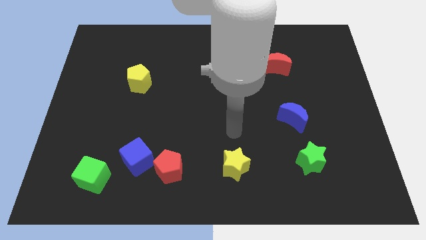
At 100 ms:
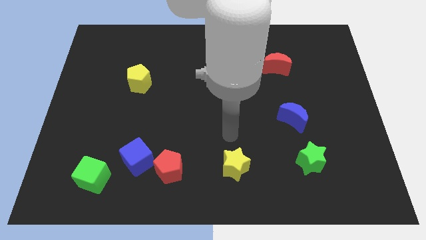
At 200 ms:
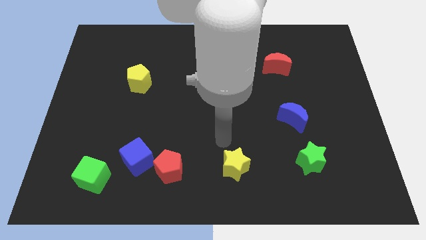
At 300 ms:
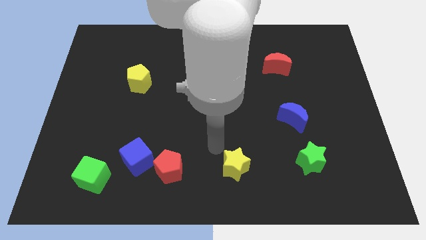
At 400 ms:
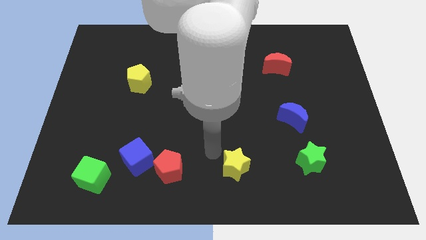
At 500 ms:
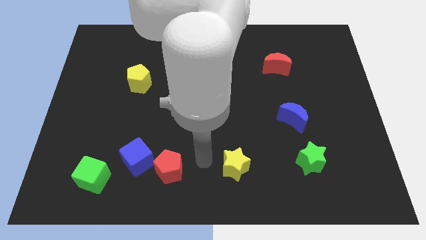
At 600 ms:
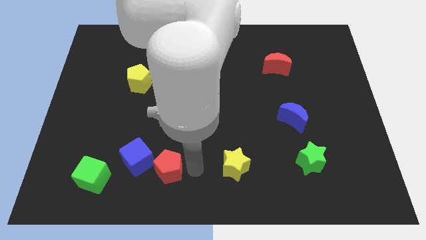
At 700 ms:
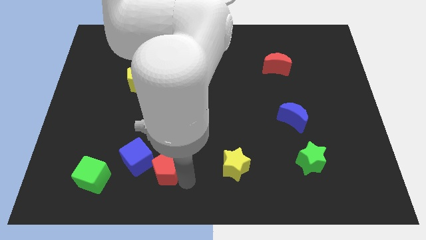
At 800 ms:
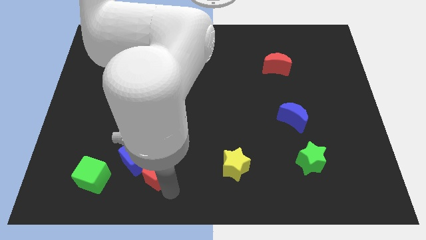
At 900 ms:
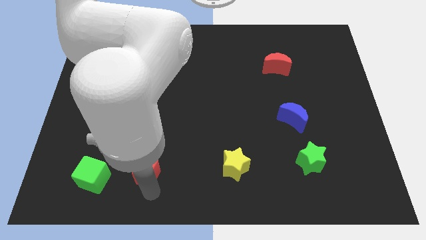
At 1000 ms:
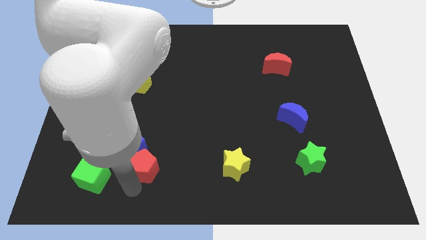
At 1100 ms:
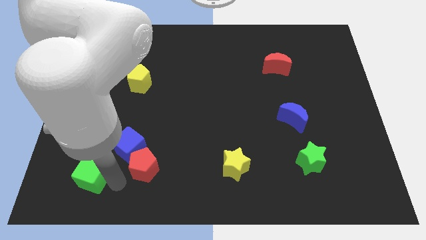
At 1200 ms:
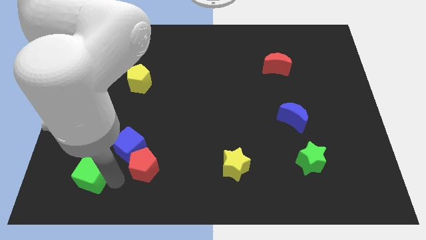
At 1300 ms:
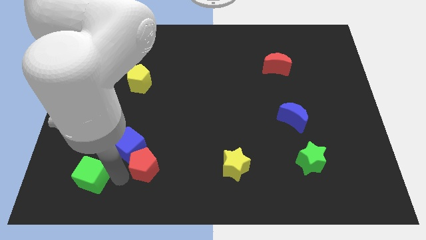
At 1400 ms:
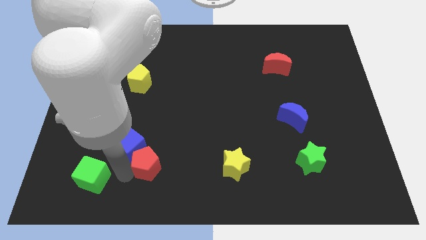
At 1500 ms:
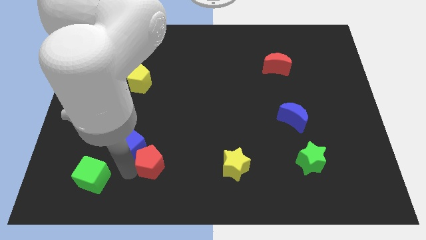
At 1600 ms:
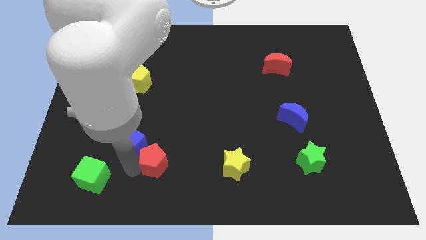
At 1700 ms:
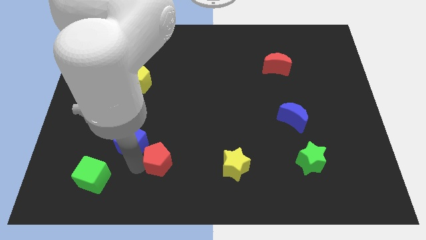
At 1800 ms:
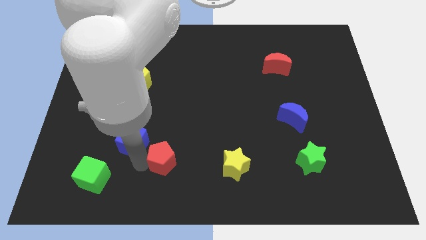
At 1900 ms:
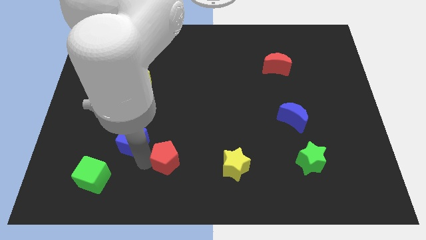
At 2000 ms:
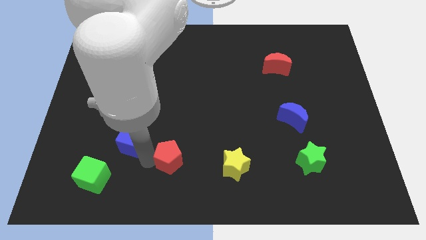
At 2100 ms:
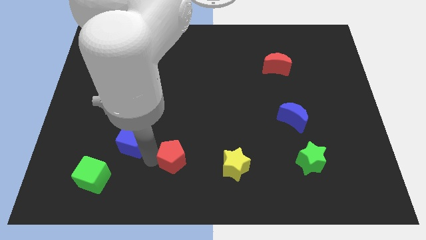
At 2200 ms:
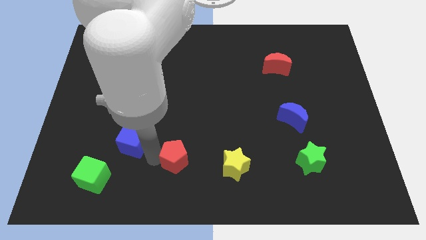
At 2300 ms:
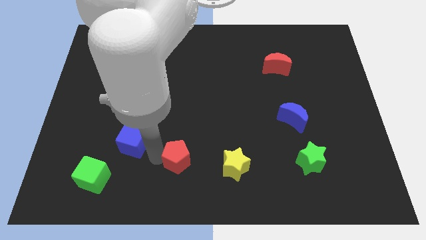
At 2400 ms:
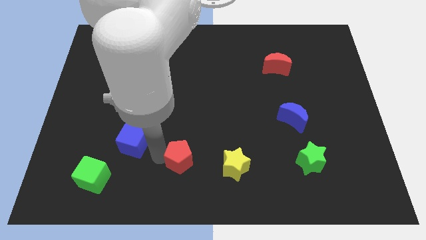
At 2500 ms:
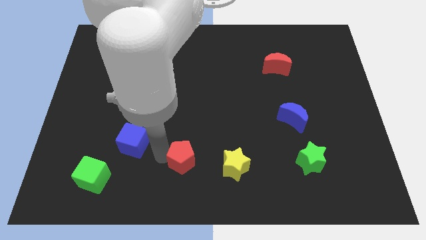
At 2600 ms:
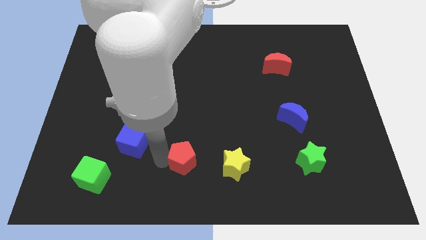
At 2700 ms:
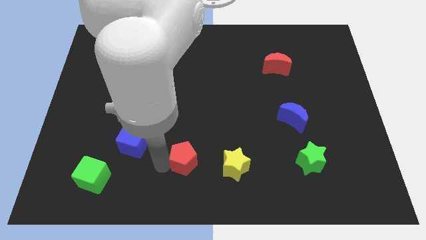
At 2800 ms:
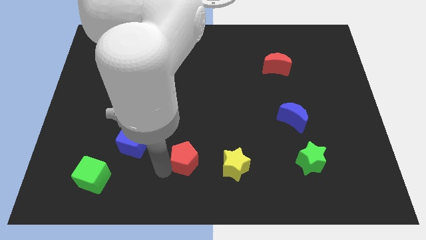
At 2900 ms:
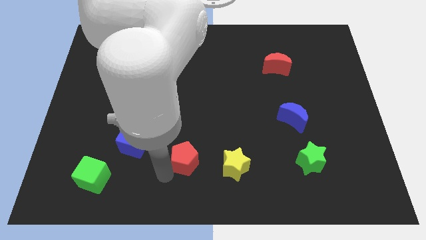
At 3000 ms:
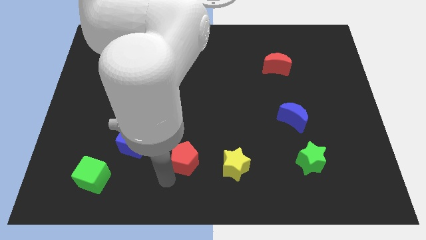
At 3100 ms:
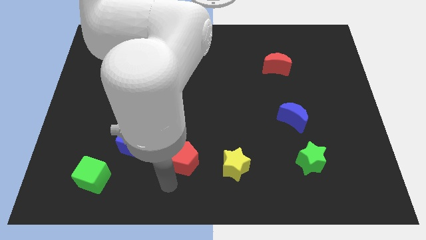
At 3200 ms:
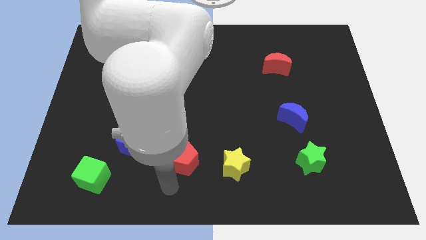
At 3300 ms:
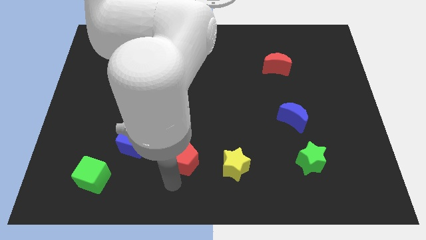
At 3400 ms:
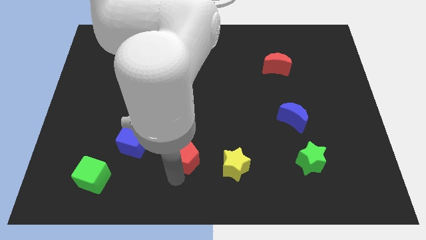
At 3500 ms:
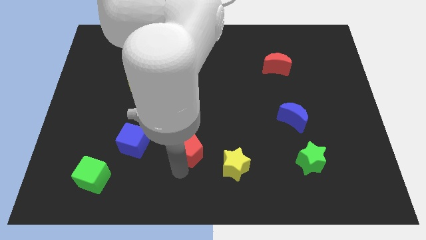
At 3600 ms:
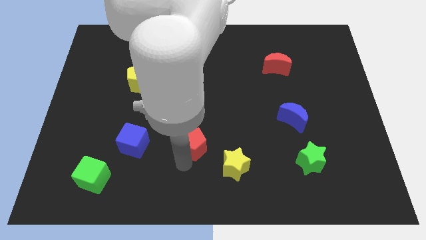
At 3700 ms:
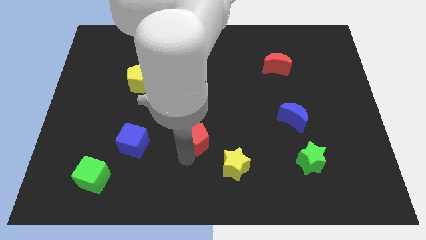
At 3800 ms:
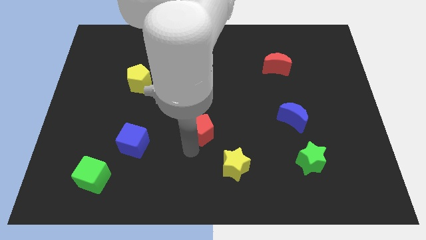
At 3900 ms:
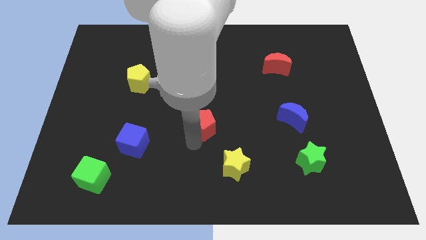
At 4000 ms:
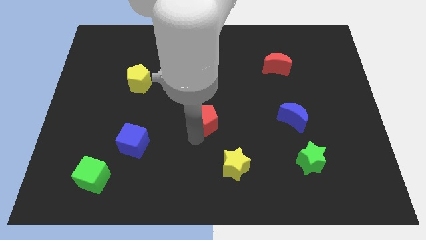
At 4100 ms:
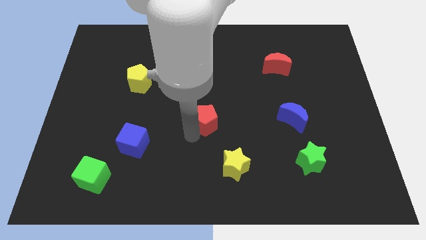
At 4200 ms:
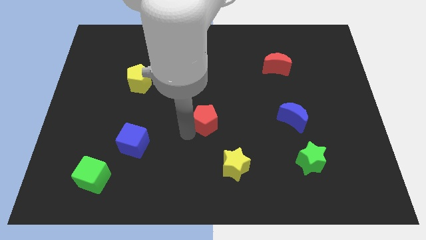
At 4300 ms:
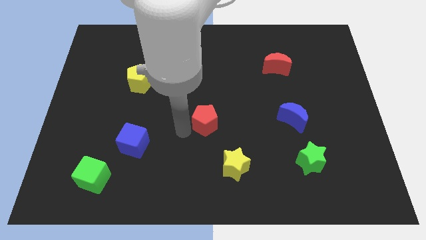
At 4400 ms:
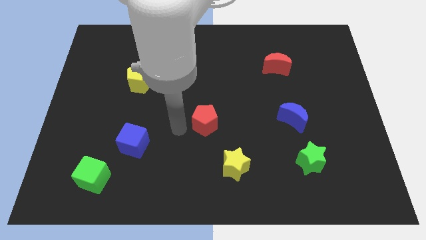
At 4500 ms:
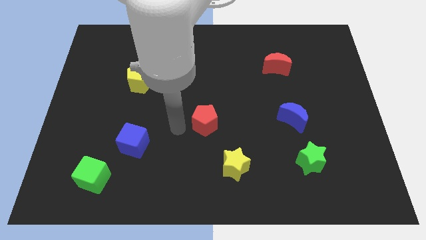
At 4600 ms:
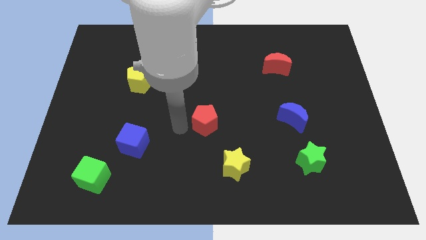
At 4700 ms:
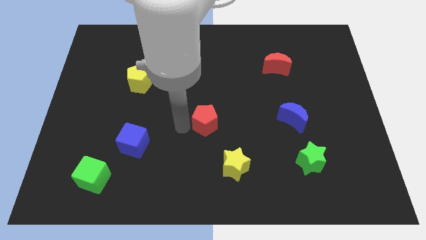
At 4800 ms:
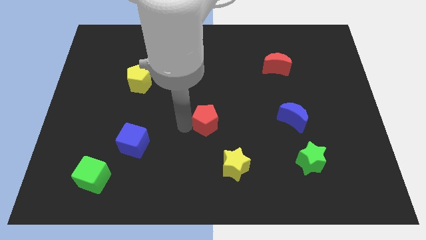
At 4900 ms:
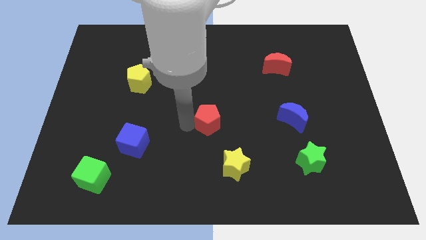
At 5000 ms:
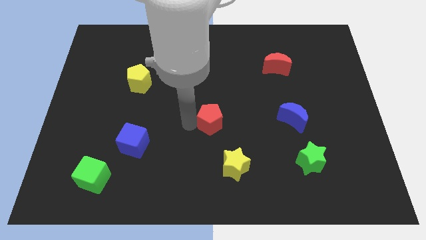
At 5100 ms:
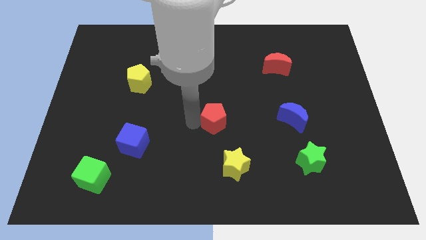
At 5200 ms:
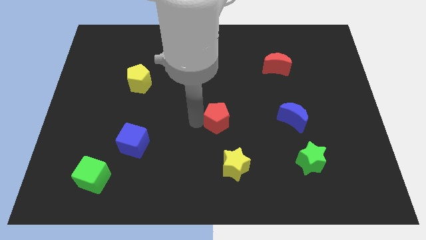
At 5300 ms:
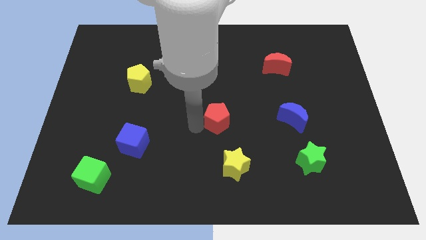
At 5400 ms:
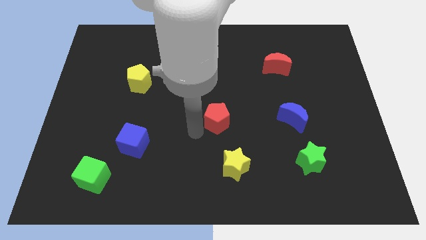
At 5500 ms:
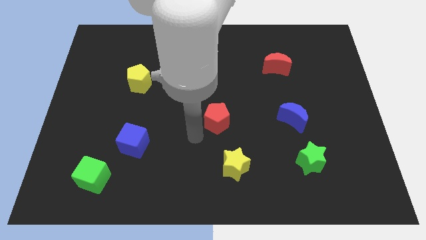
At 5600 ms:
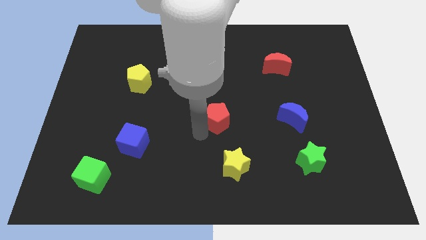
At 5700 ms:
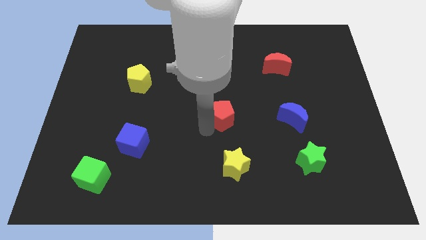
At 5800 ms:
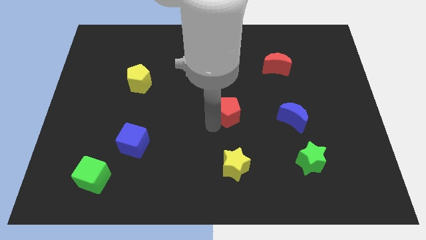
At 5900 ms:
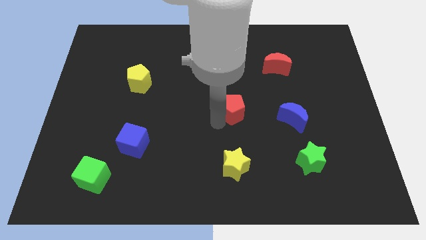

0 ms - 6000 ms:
slide the red pentagon diagonally upwards and to the right

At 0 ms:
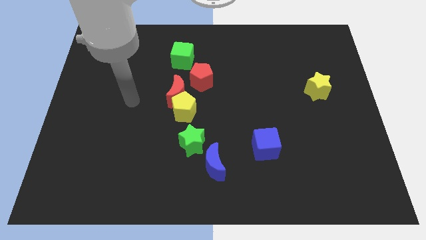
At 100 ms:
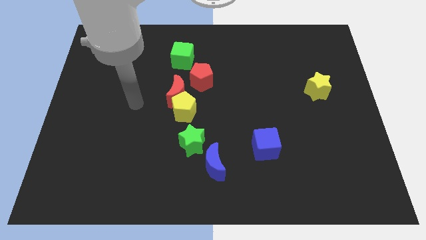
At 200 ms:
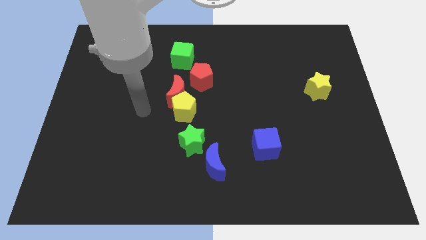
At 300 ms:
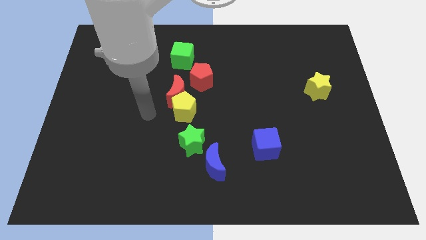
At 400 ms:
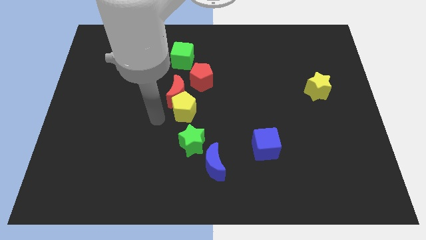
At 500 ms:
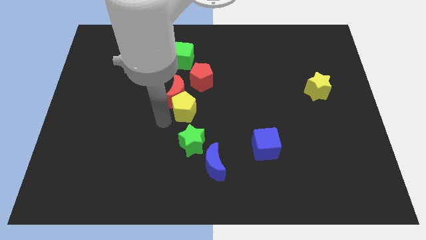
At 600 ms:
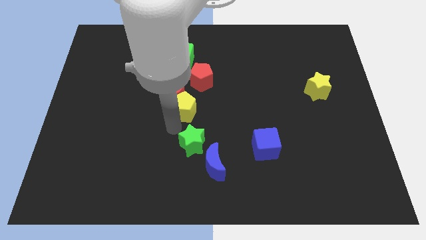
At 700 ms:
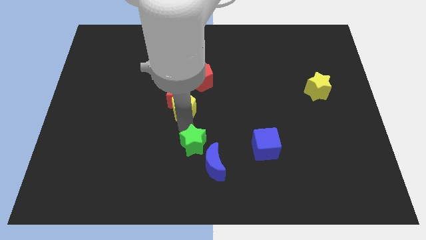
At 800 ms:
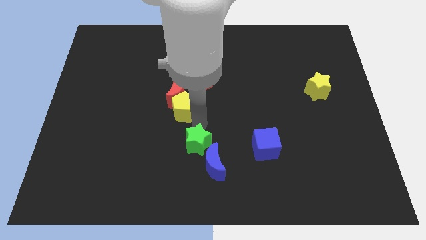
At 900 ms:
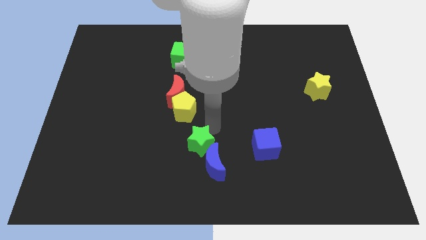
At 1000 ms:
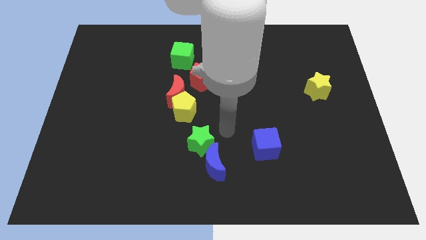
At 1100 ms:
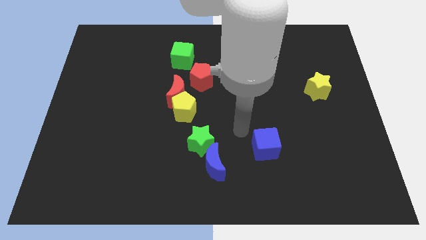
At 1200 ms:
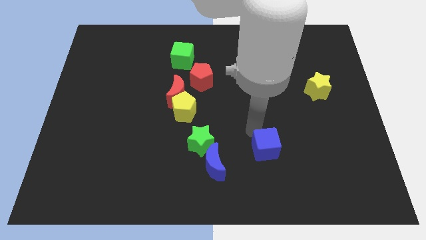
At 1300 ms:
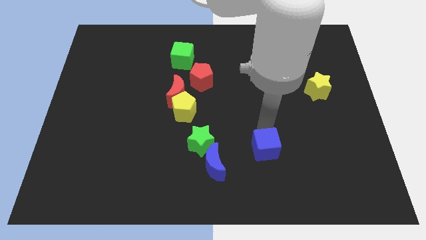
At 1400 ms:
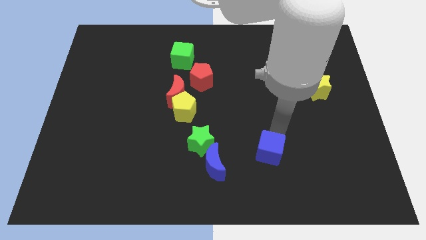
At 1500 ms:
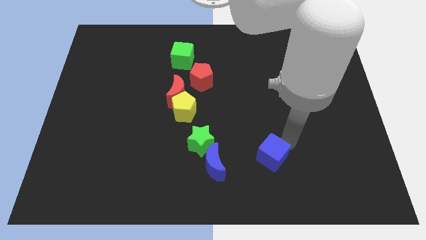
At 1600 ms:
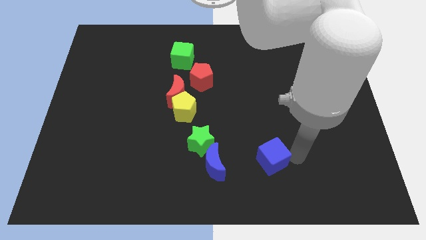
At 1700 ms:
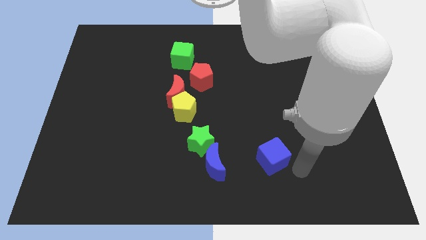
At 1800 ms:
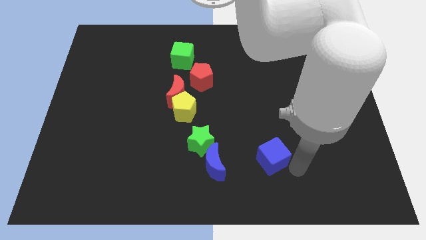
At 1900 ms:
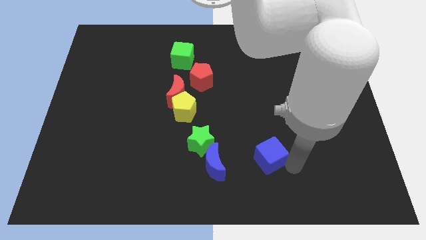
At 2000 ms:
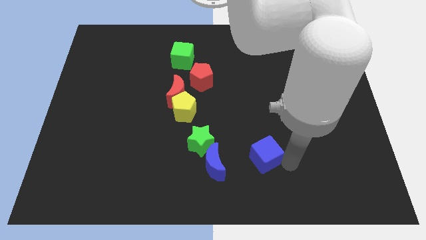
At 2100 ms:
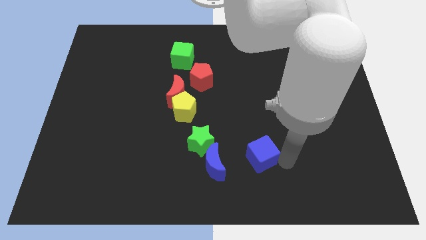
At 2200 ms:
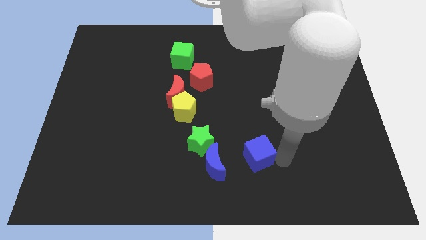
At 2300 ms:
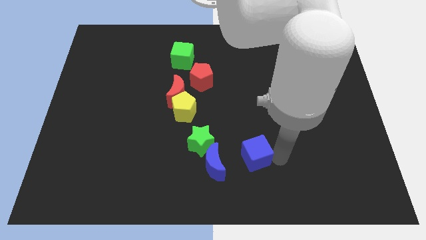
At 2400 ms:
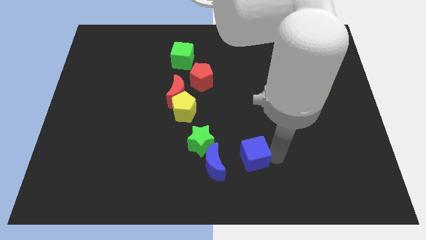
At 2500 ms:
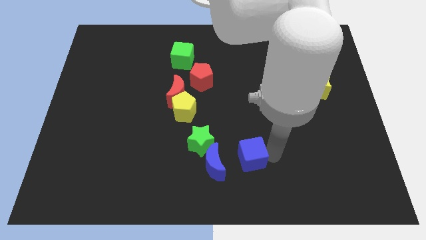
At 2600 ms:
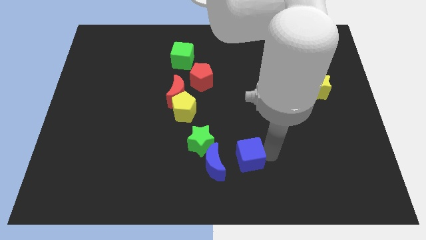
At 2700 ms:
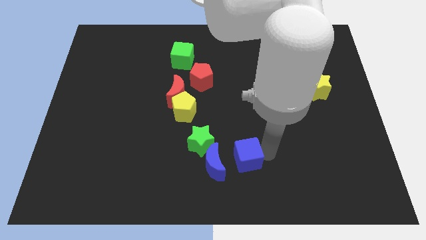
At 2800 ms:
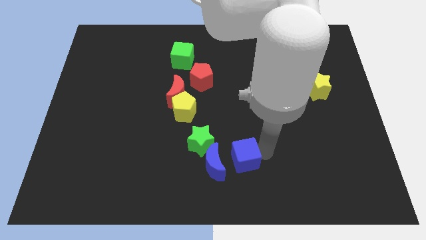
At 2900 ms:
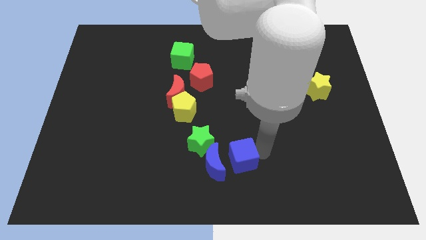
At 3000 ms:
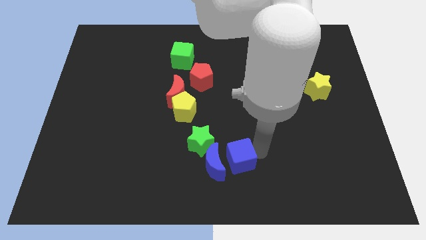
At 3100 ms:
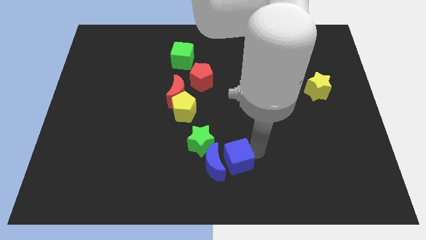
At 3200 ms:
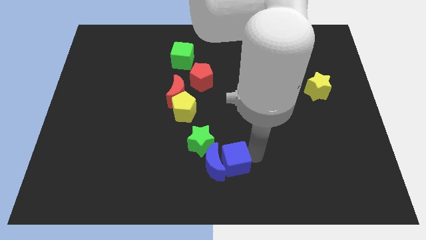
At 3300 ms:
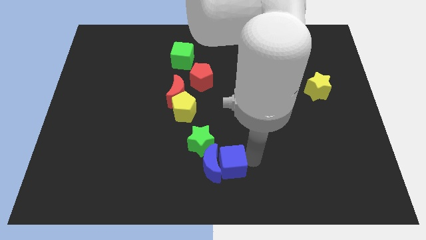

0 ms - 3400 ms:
move the blue cube slightly to the left
